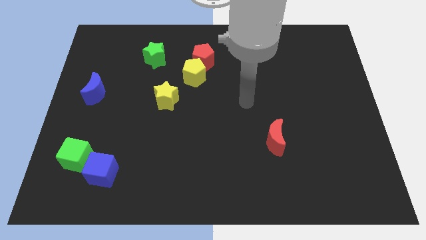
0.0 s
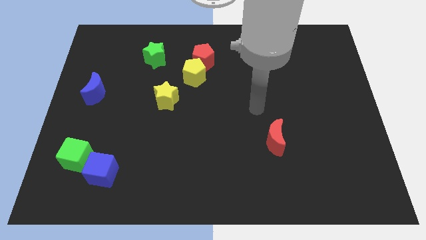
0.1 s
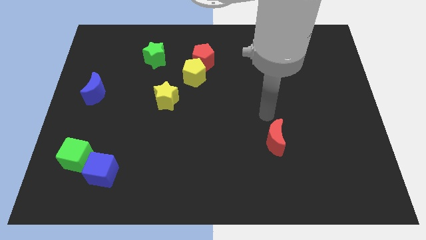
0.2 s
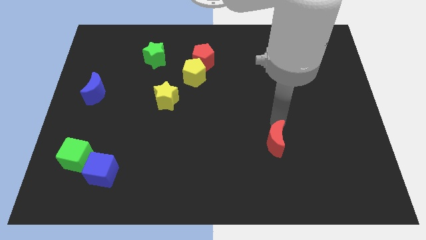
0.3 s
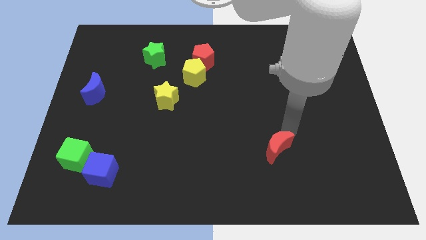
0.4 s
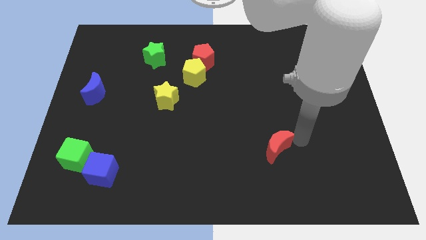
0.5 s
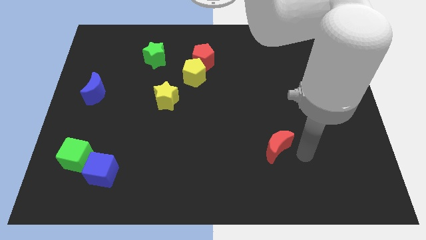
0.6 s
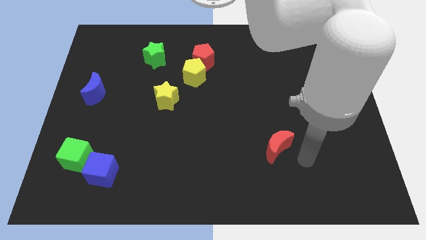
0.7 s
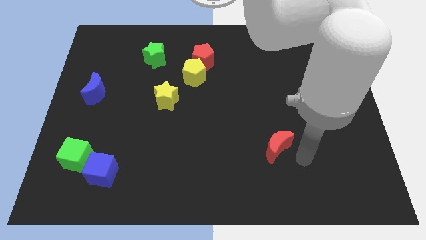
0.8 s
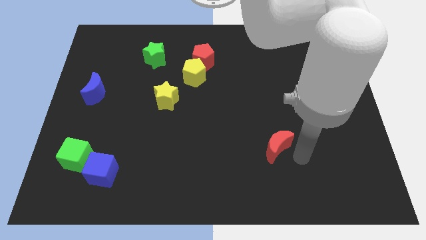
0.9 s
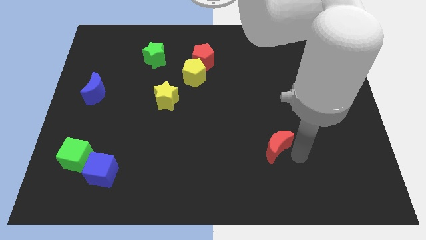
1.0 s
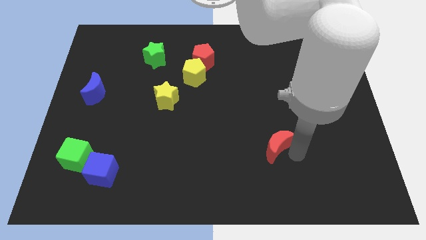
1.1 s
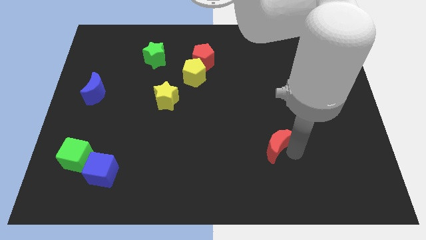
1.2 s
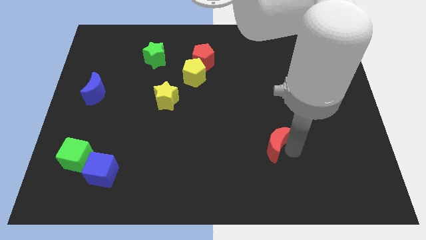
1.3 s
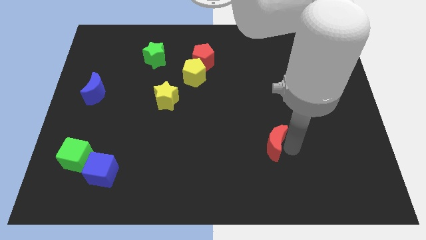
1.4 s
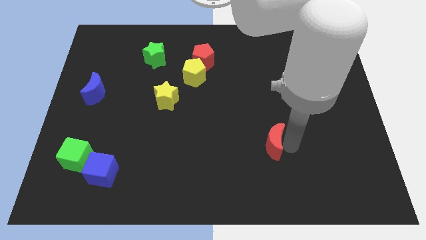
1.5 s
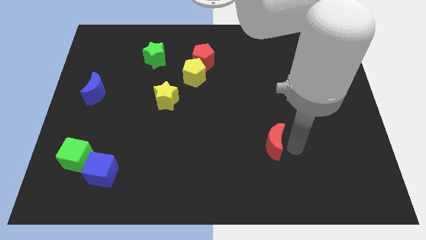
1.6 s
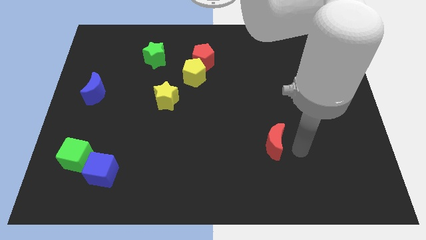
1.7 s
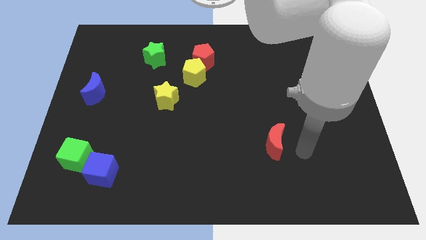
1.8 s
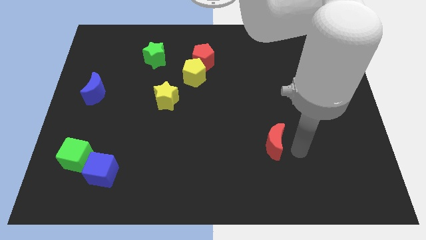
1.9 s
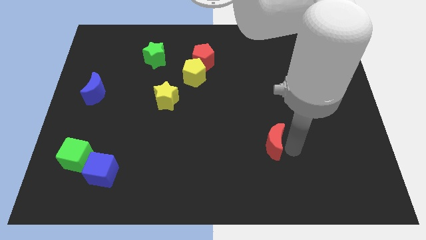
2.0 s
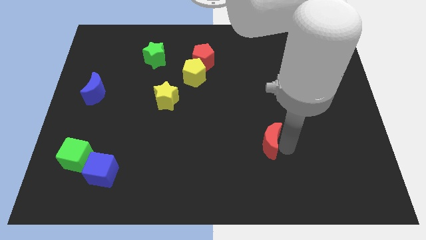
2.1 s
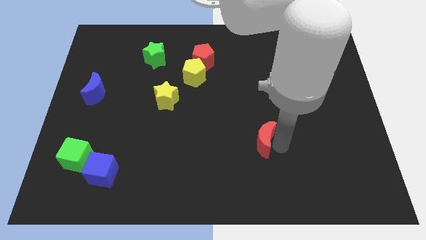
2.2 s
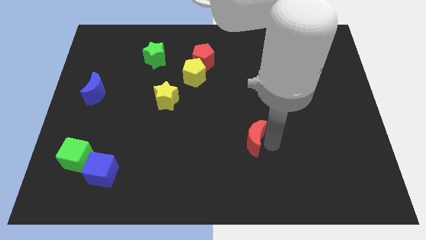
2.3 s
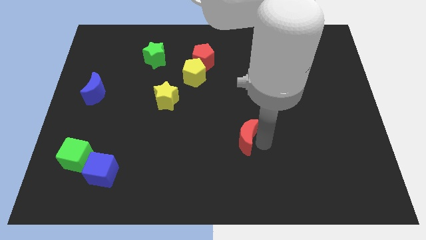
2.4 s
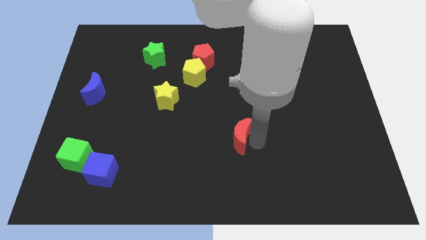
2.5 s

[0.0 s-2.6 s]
move the red moon to the left a little bit

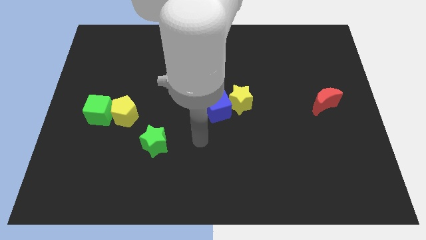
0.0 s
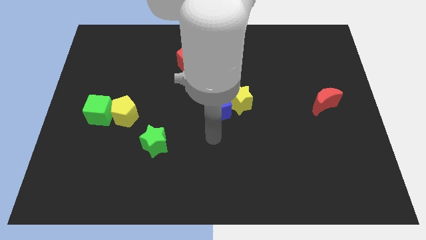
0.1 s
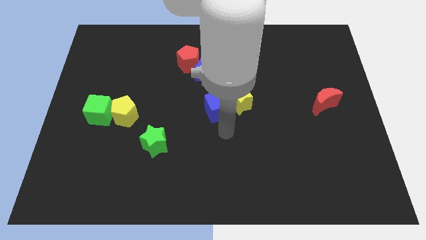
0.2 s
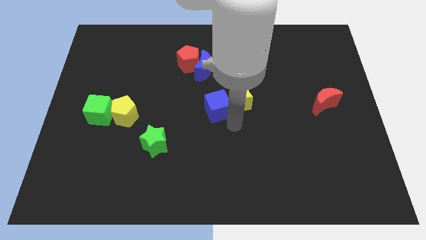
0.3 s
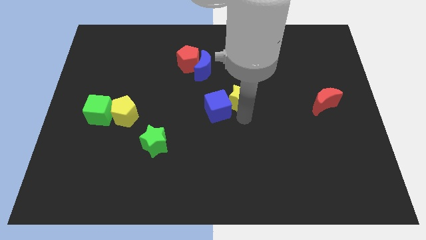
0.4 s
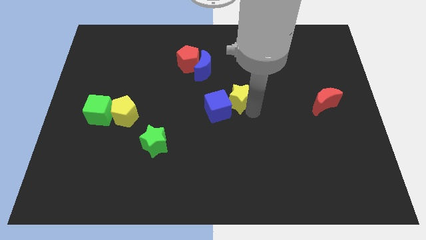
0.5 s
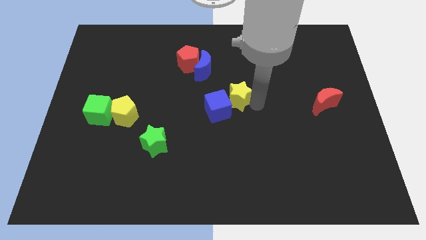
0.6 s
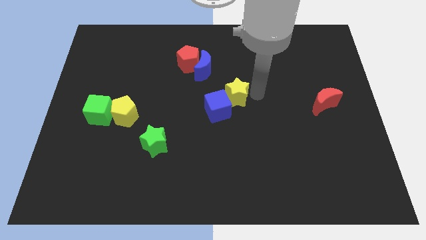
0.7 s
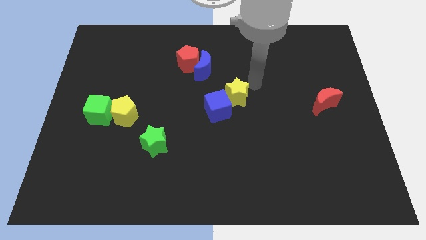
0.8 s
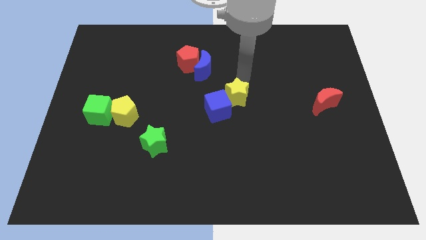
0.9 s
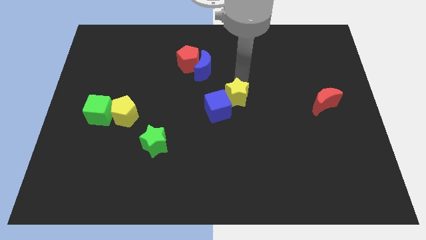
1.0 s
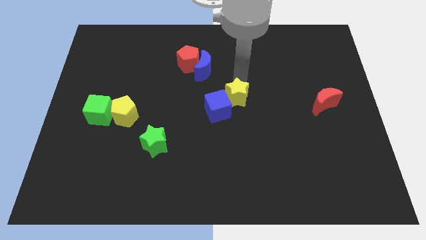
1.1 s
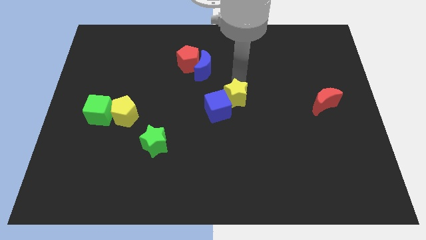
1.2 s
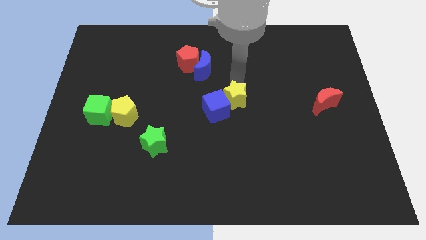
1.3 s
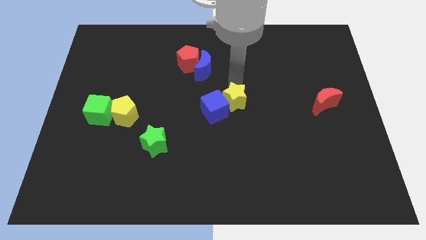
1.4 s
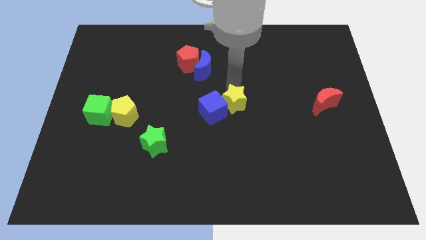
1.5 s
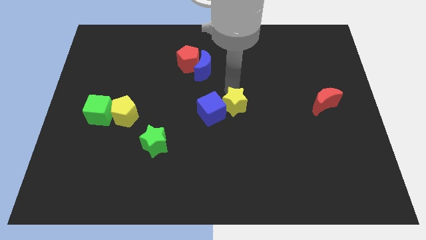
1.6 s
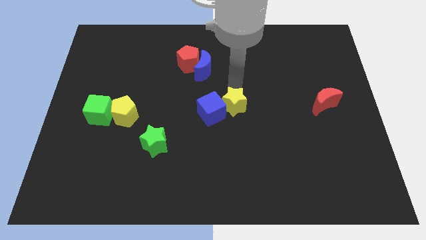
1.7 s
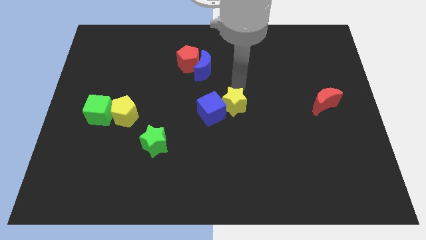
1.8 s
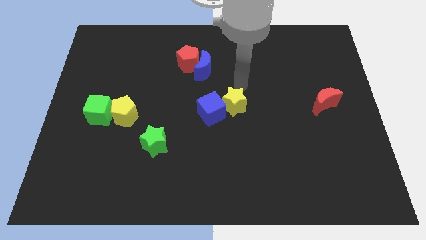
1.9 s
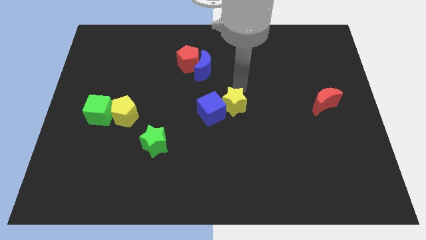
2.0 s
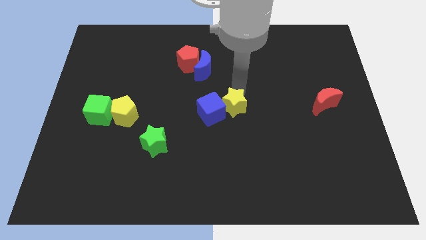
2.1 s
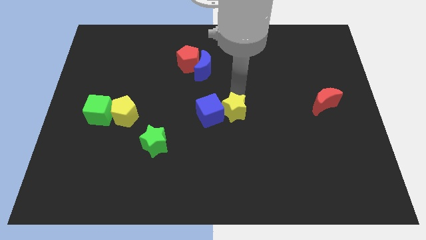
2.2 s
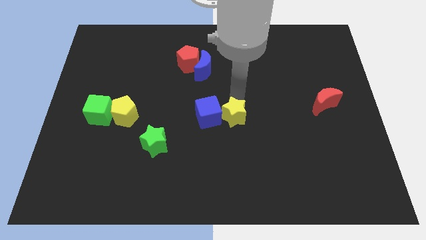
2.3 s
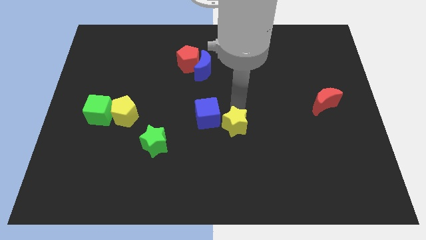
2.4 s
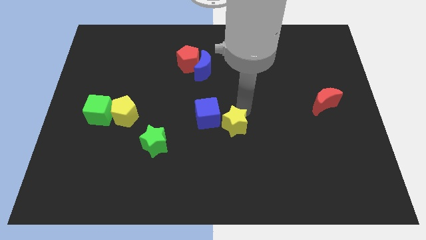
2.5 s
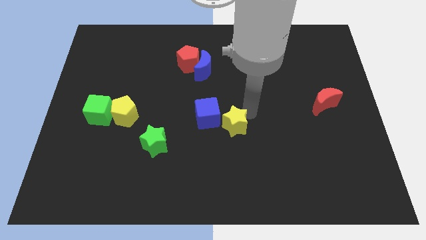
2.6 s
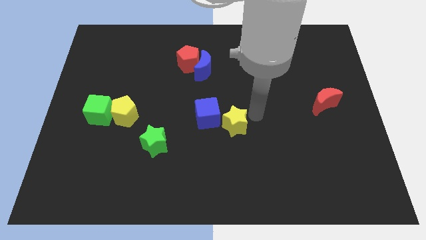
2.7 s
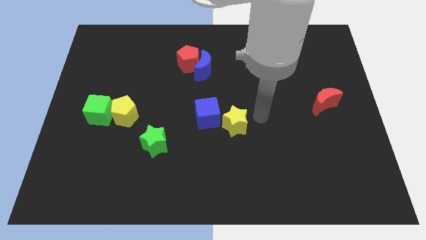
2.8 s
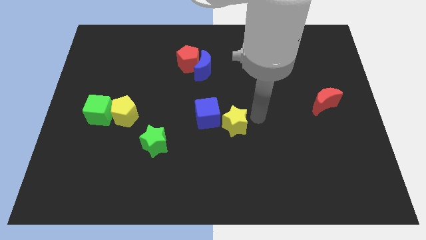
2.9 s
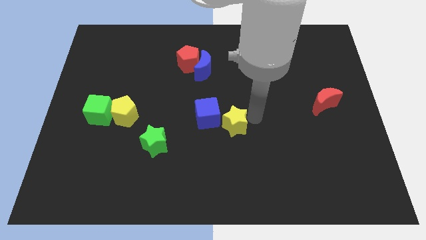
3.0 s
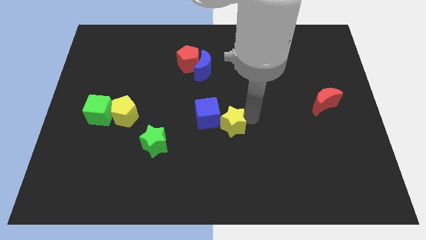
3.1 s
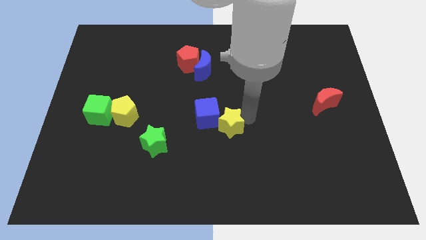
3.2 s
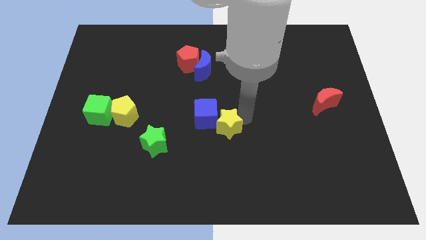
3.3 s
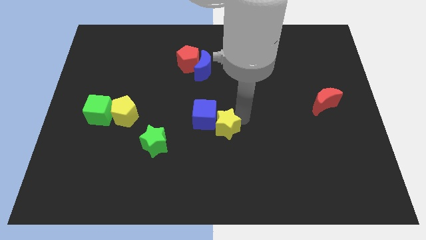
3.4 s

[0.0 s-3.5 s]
push the yellow star a little diagonally downwards and left

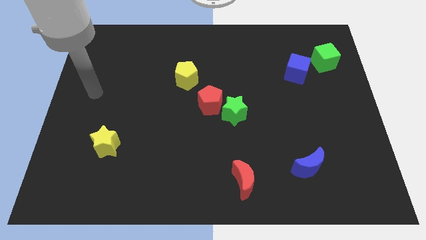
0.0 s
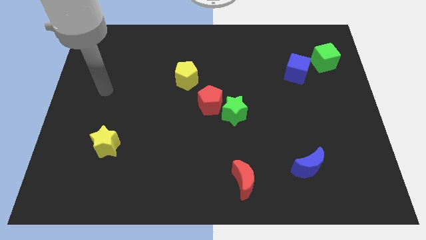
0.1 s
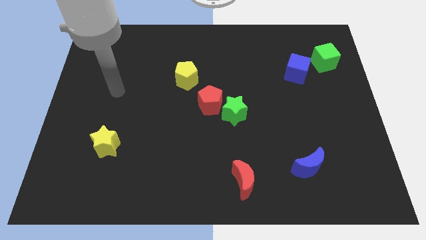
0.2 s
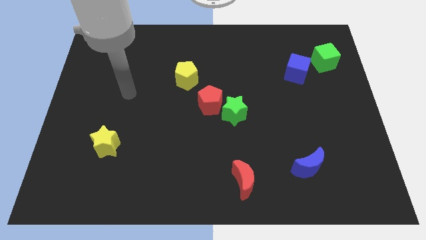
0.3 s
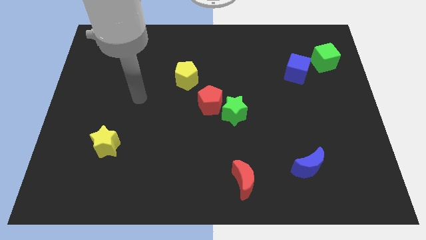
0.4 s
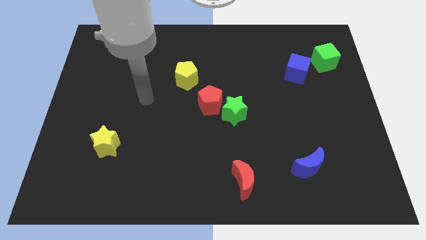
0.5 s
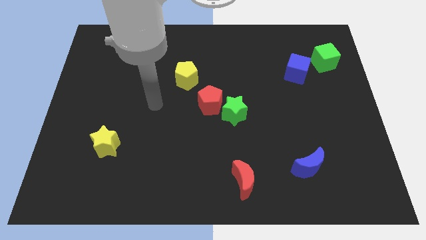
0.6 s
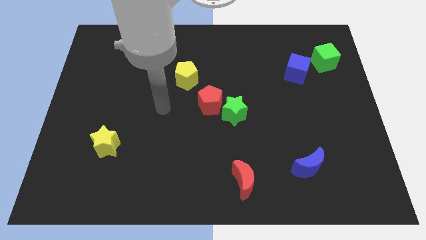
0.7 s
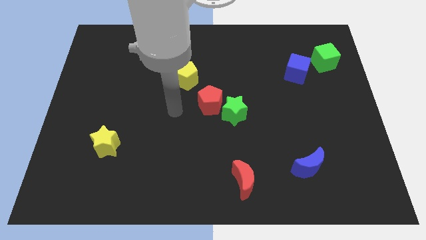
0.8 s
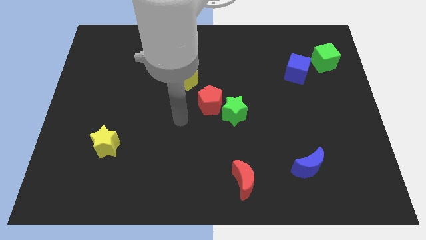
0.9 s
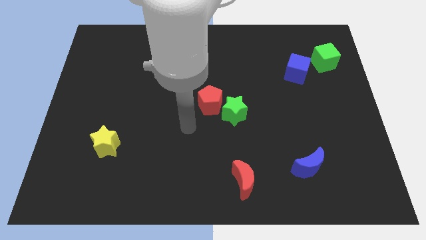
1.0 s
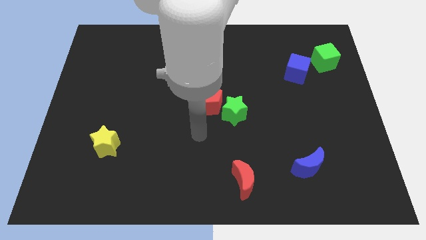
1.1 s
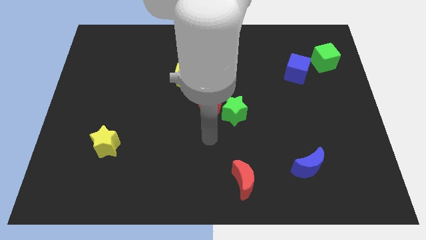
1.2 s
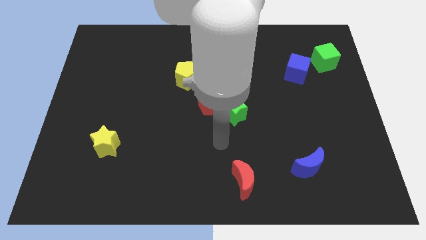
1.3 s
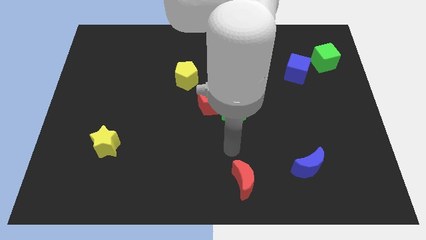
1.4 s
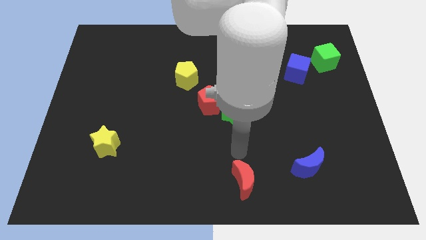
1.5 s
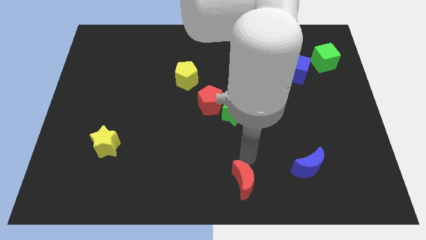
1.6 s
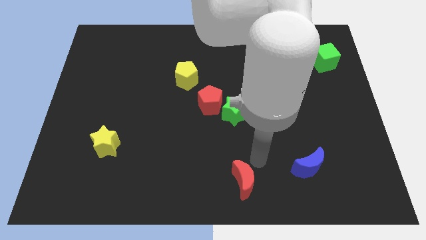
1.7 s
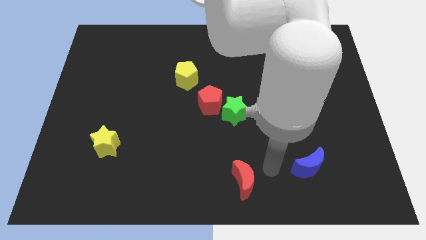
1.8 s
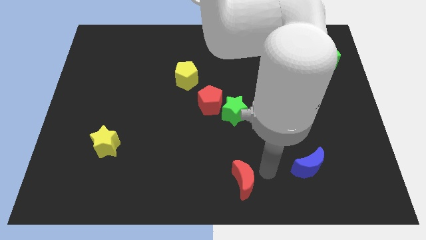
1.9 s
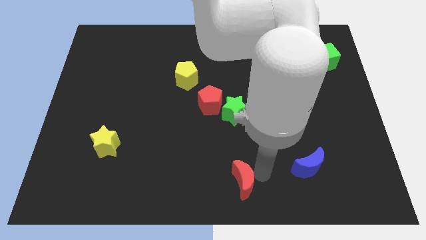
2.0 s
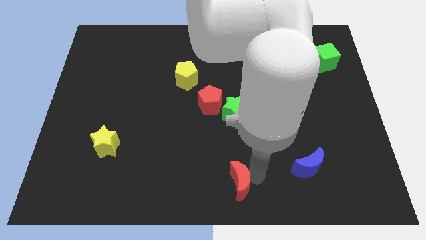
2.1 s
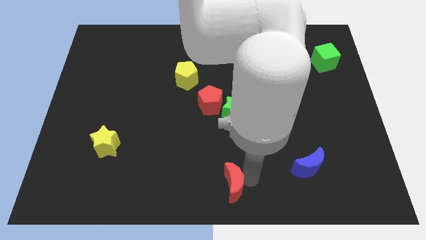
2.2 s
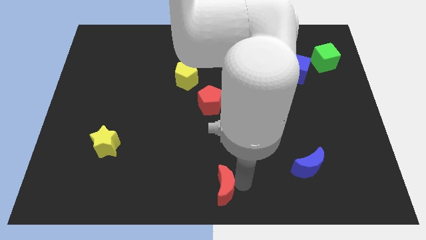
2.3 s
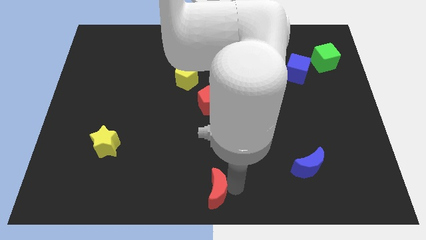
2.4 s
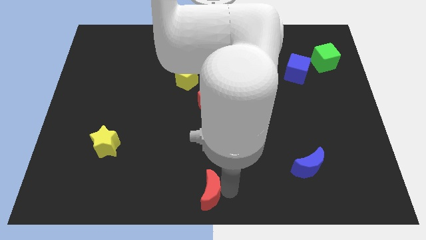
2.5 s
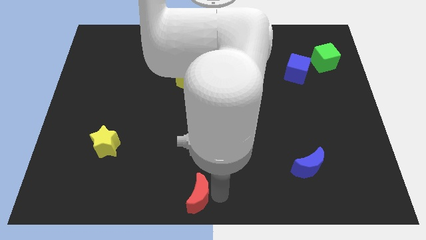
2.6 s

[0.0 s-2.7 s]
slide the red moon to the left a bit
